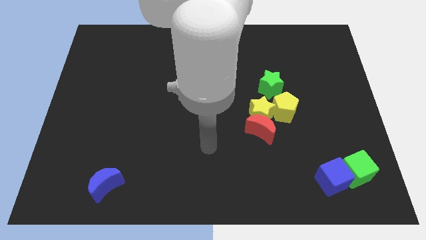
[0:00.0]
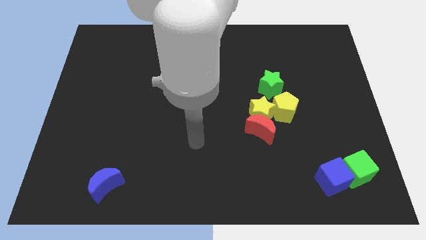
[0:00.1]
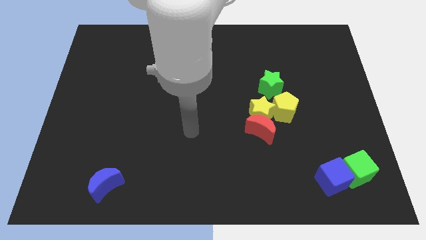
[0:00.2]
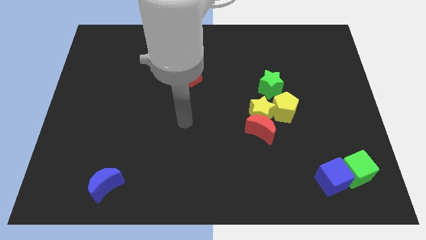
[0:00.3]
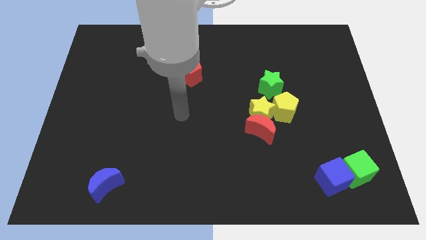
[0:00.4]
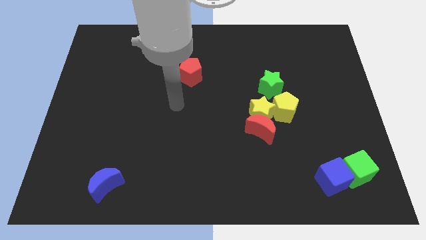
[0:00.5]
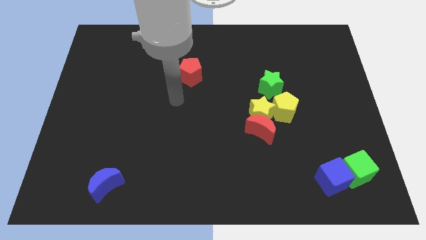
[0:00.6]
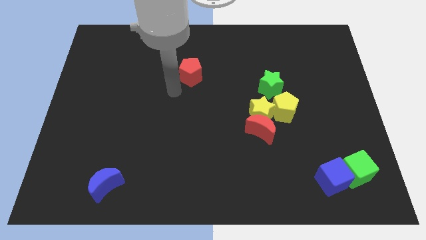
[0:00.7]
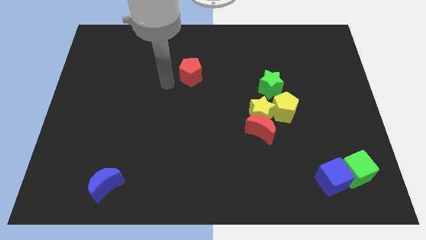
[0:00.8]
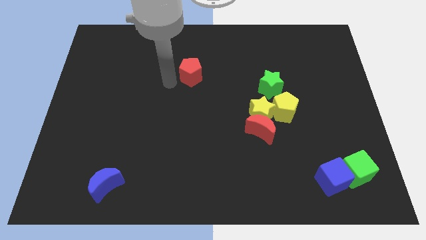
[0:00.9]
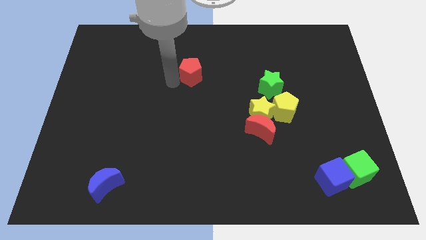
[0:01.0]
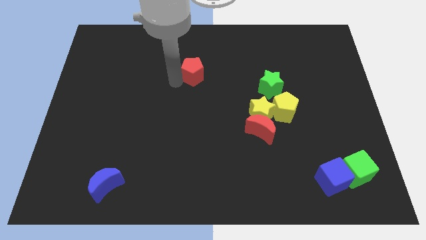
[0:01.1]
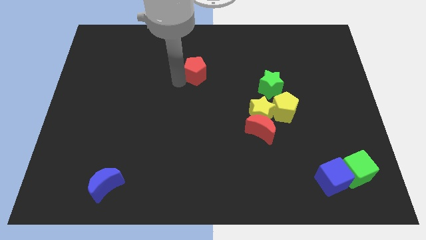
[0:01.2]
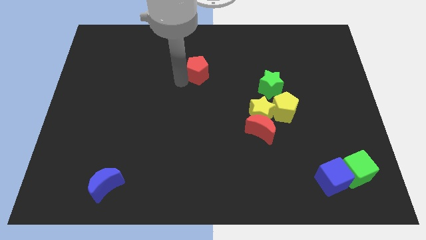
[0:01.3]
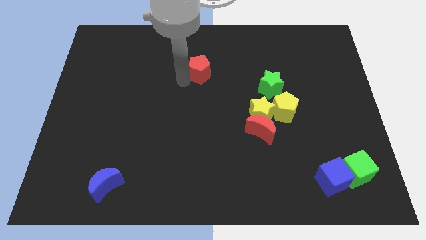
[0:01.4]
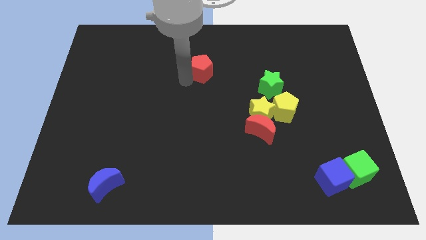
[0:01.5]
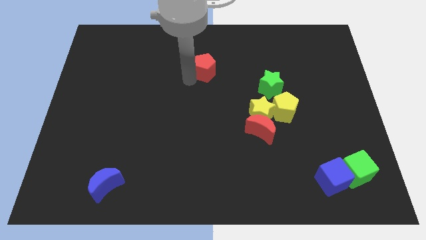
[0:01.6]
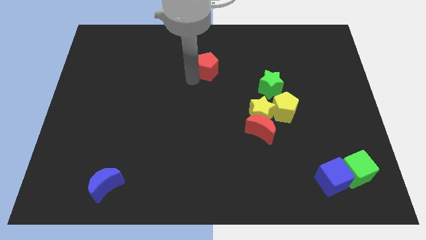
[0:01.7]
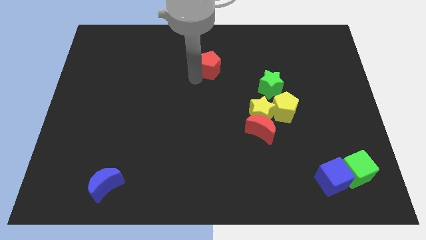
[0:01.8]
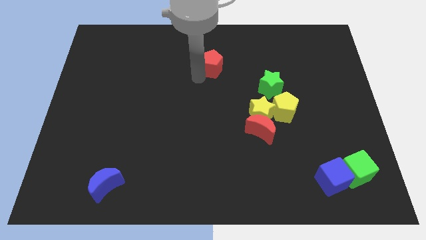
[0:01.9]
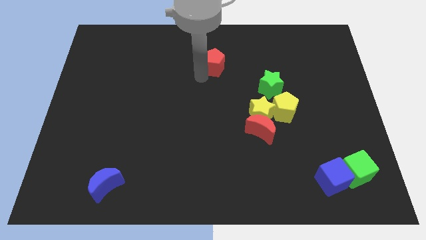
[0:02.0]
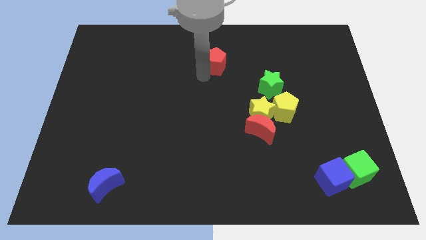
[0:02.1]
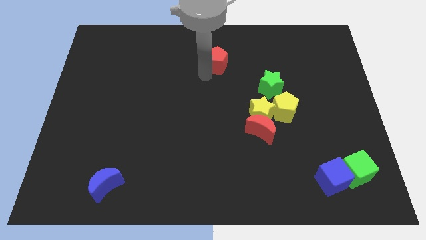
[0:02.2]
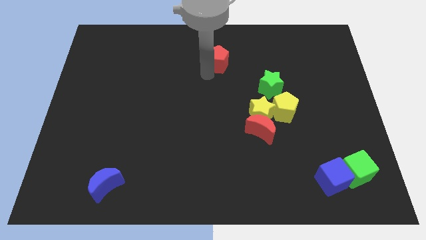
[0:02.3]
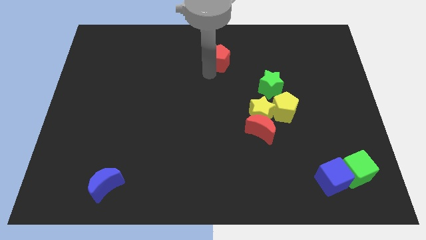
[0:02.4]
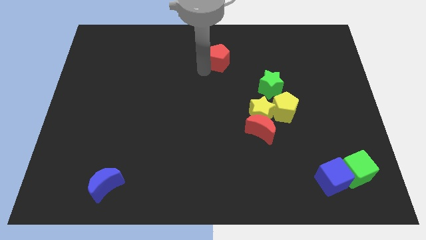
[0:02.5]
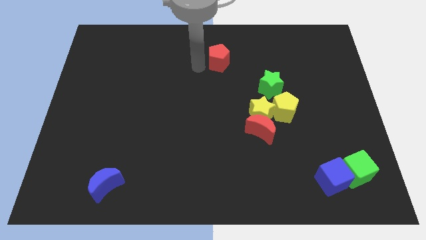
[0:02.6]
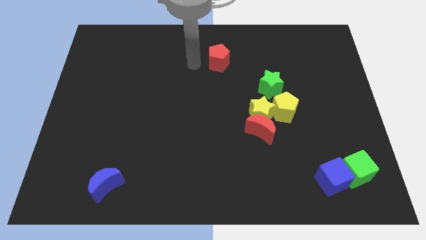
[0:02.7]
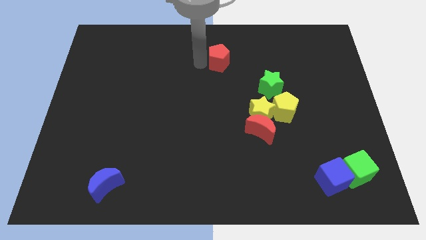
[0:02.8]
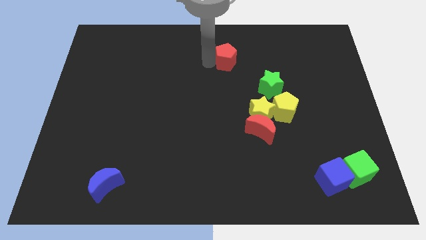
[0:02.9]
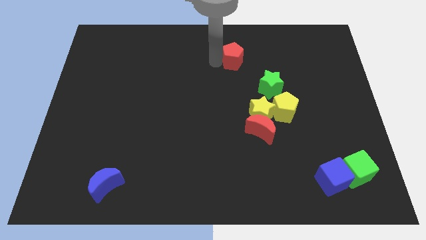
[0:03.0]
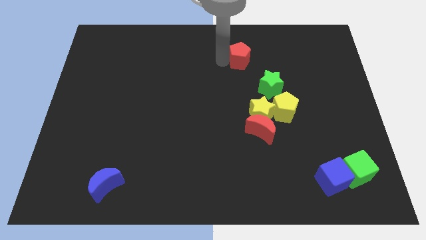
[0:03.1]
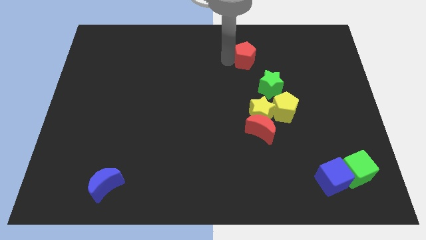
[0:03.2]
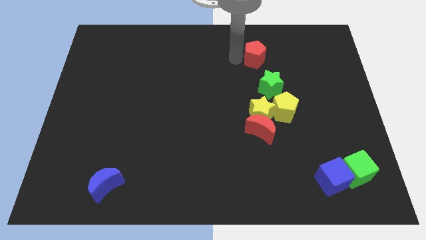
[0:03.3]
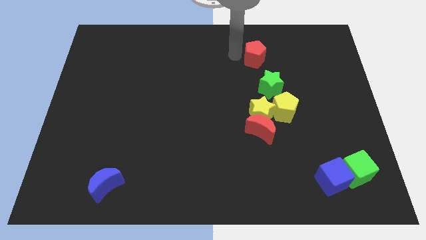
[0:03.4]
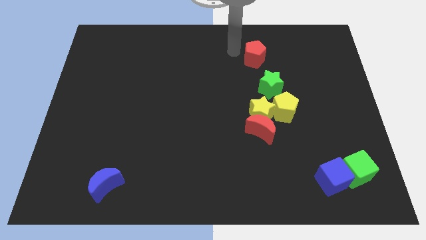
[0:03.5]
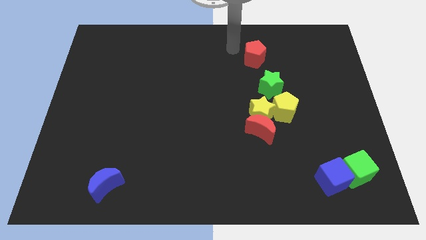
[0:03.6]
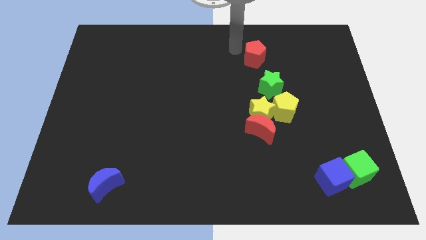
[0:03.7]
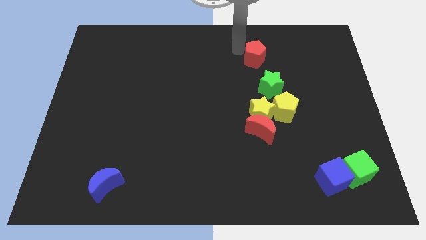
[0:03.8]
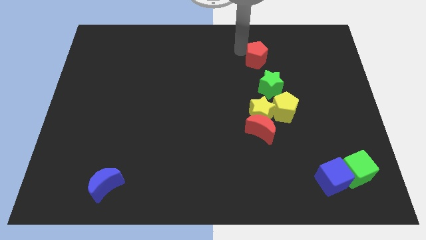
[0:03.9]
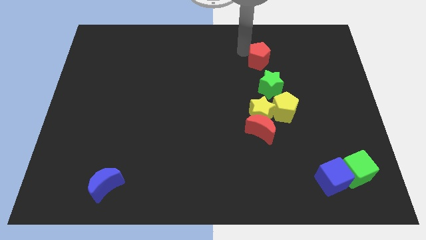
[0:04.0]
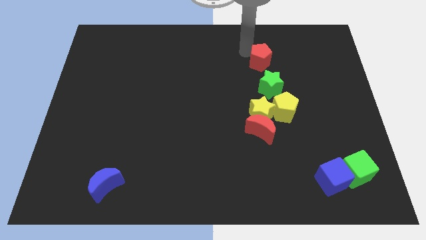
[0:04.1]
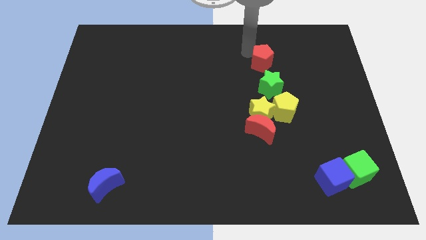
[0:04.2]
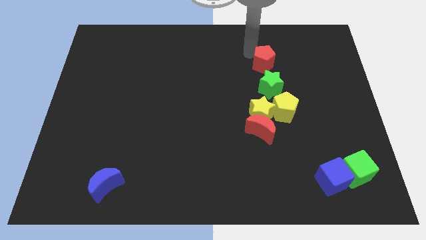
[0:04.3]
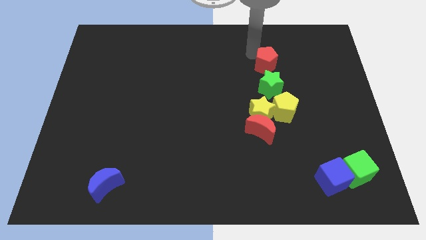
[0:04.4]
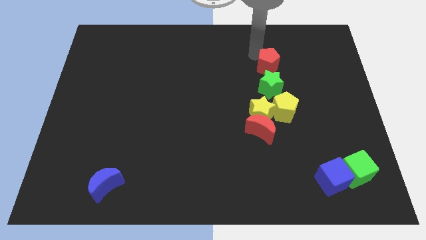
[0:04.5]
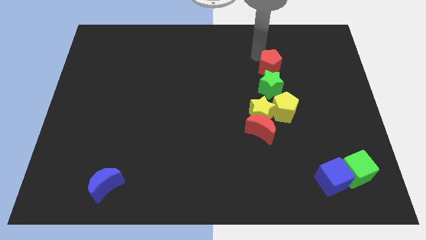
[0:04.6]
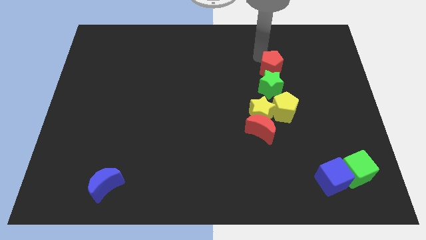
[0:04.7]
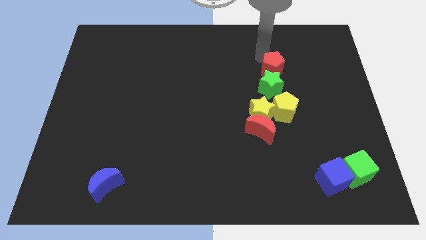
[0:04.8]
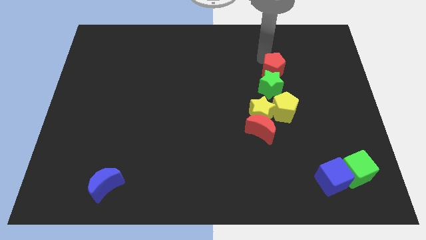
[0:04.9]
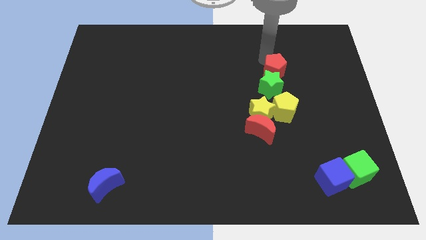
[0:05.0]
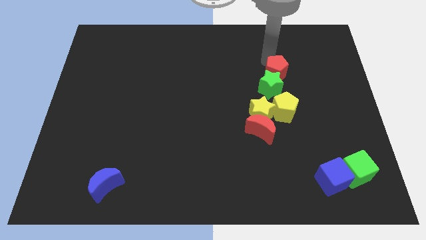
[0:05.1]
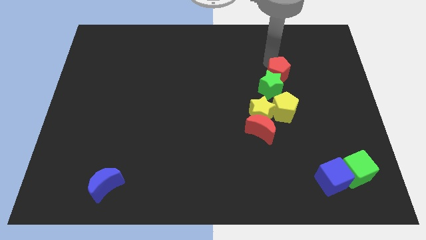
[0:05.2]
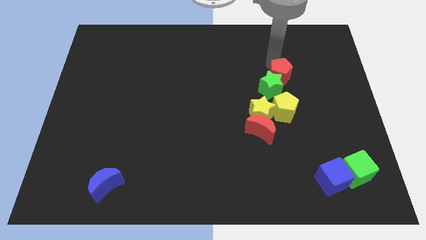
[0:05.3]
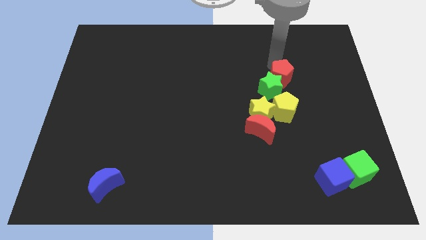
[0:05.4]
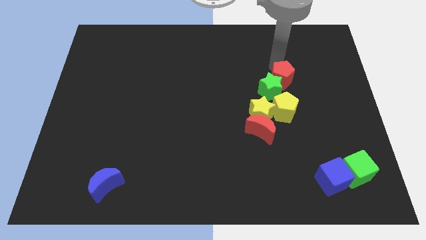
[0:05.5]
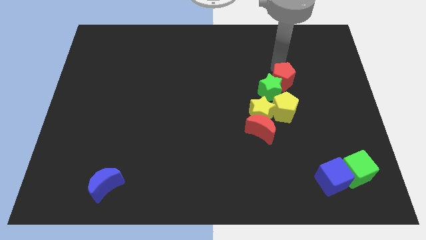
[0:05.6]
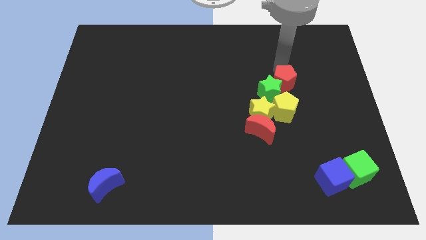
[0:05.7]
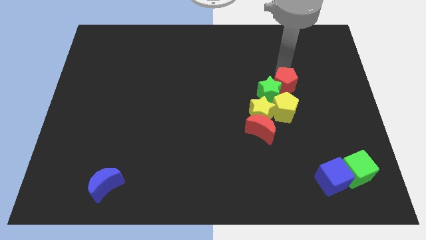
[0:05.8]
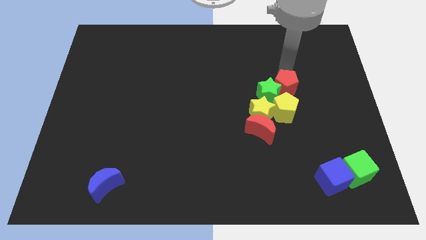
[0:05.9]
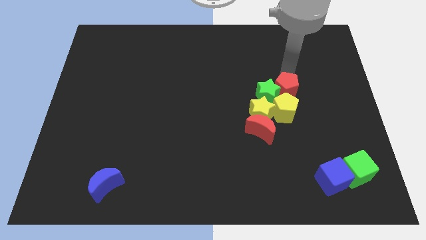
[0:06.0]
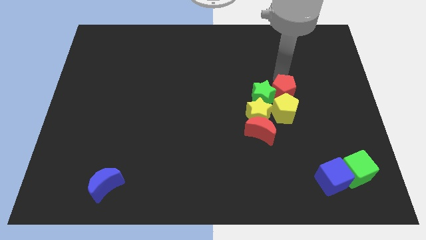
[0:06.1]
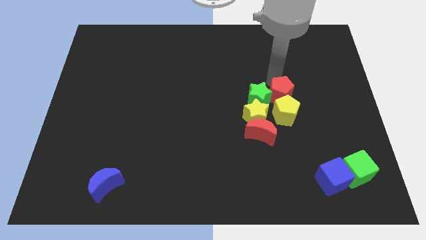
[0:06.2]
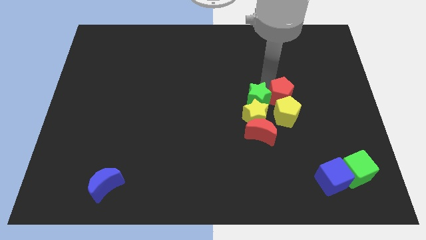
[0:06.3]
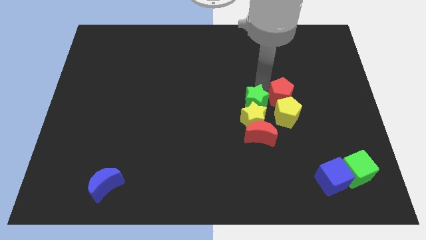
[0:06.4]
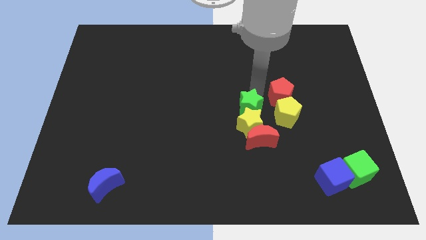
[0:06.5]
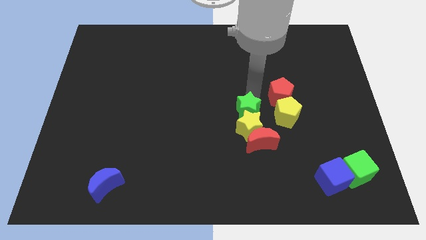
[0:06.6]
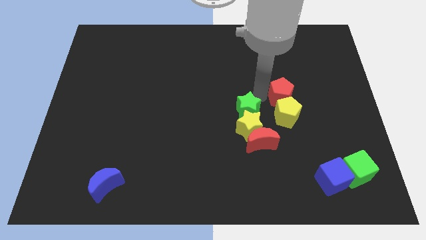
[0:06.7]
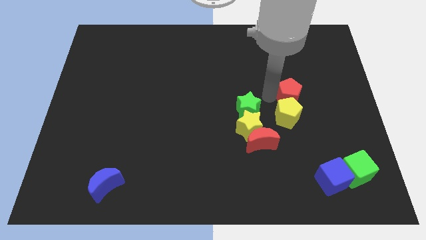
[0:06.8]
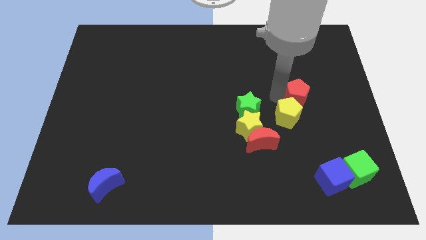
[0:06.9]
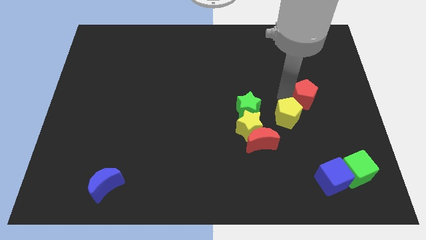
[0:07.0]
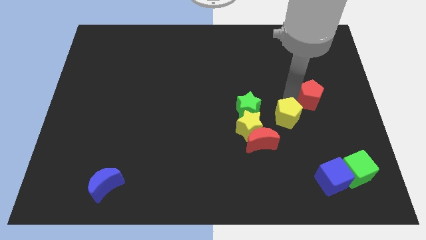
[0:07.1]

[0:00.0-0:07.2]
push the red pentagon to the right side of the yellow pentagon

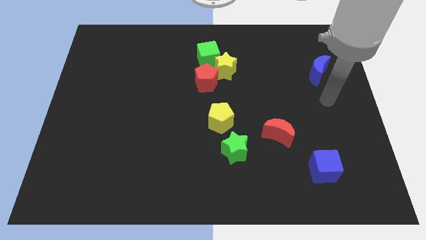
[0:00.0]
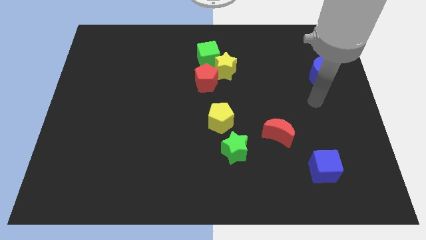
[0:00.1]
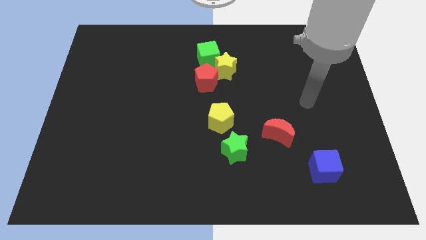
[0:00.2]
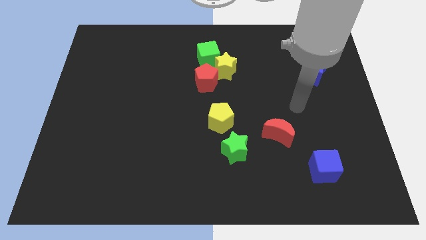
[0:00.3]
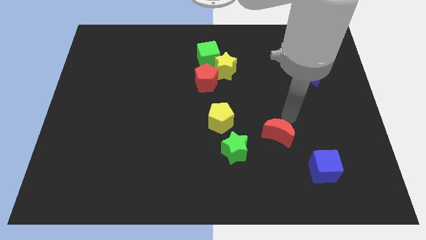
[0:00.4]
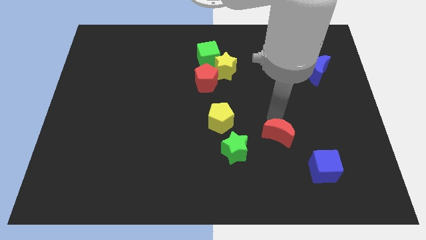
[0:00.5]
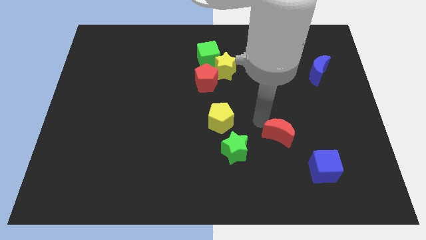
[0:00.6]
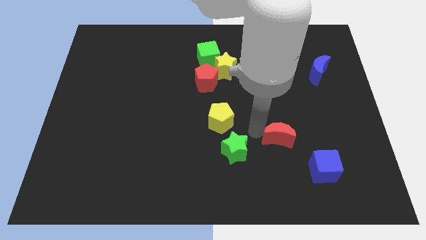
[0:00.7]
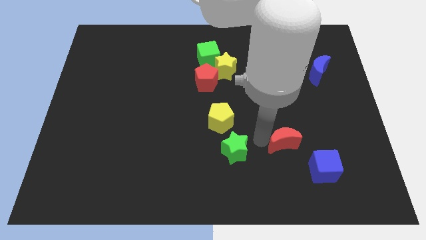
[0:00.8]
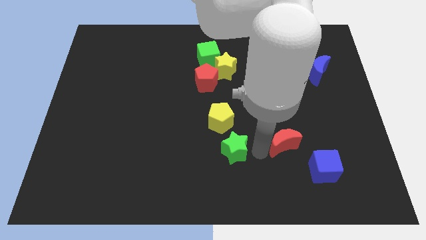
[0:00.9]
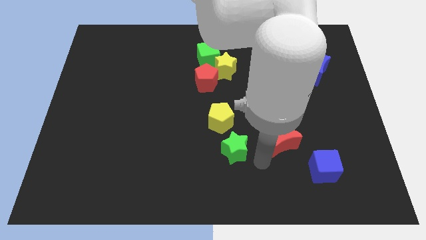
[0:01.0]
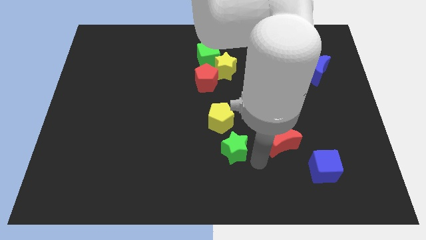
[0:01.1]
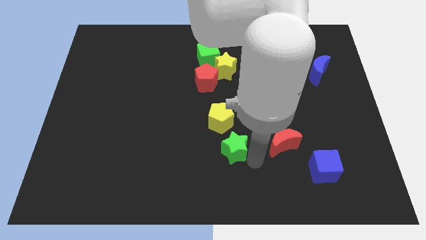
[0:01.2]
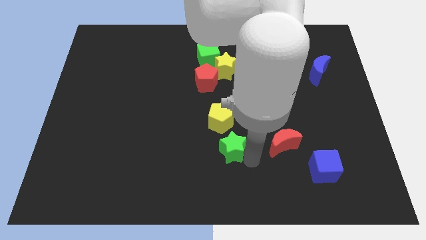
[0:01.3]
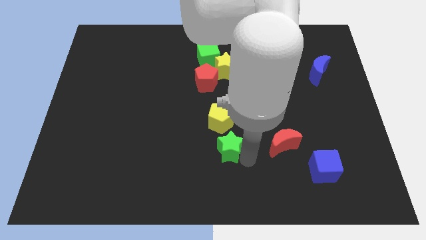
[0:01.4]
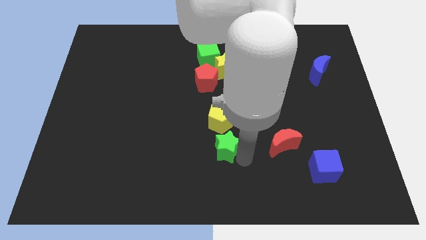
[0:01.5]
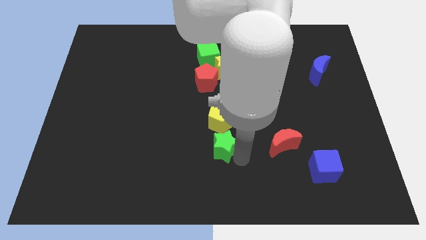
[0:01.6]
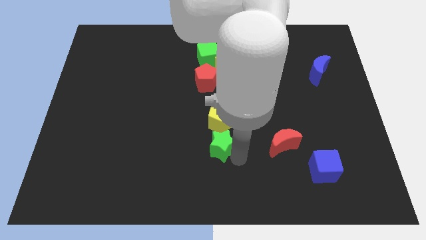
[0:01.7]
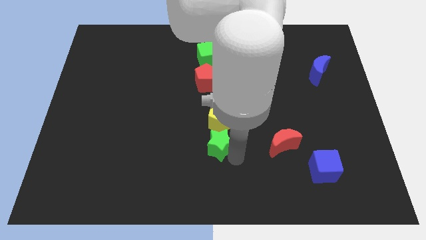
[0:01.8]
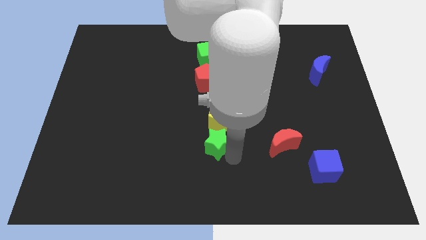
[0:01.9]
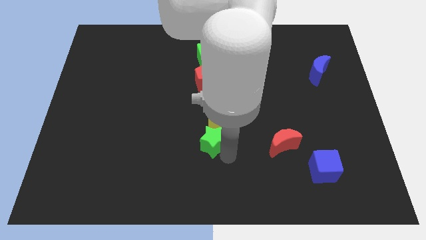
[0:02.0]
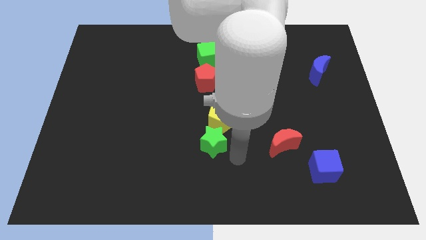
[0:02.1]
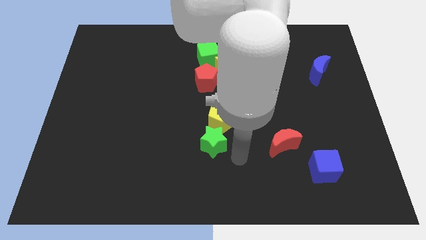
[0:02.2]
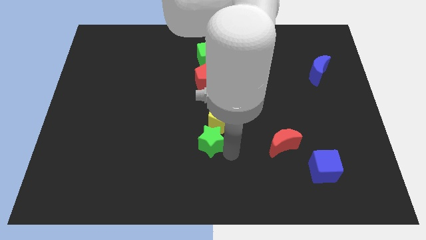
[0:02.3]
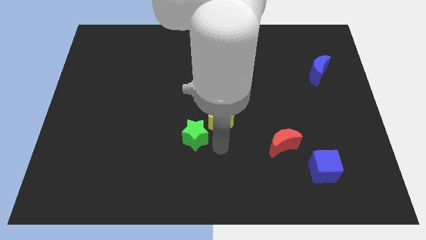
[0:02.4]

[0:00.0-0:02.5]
put the green star to the left side of the yellow pentagon
